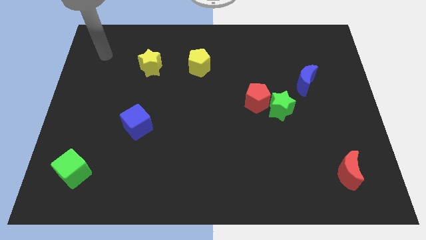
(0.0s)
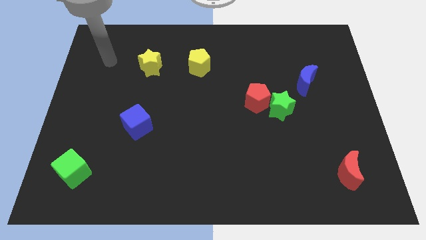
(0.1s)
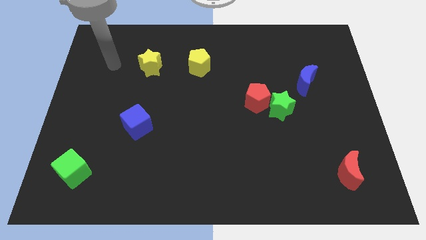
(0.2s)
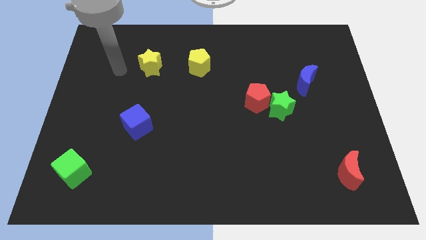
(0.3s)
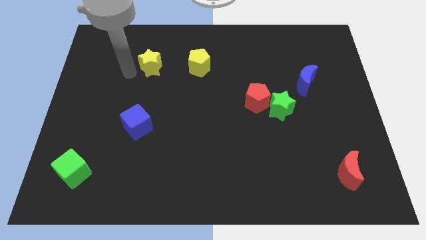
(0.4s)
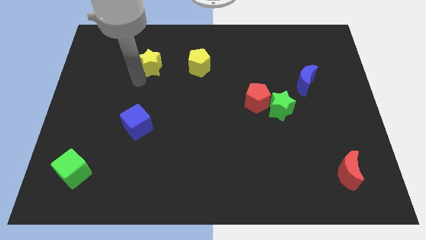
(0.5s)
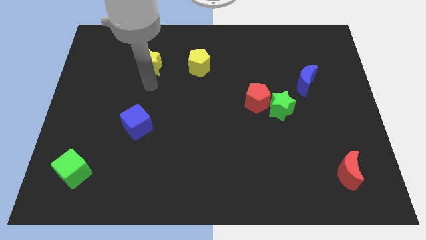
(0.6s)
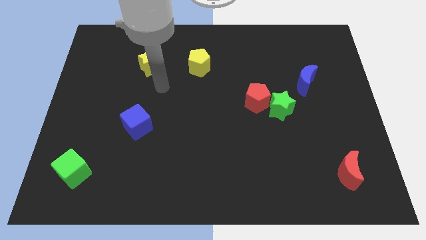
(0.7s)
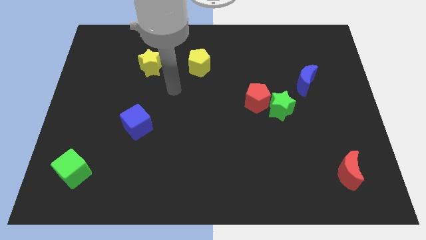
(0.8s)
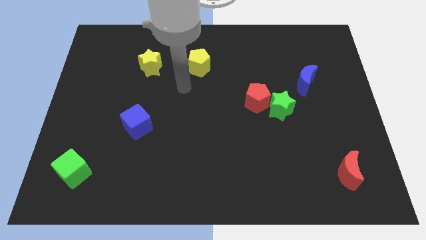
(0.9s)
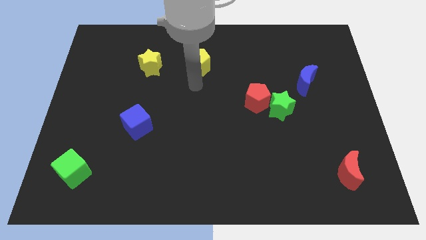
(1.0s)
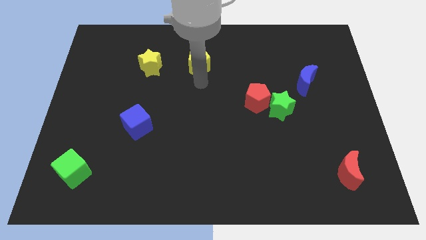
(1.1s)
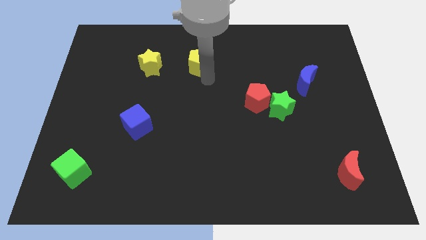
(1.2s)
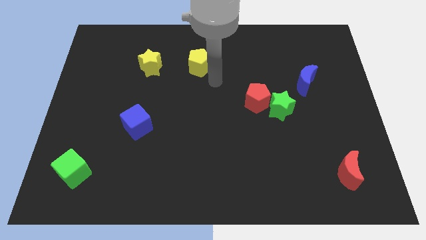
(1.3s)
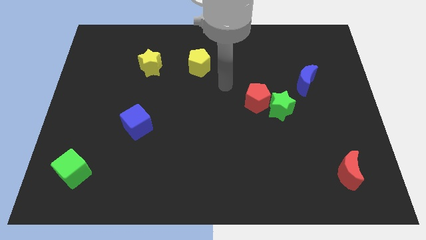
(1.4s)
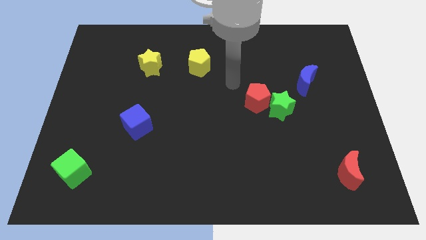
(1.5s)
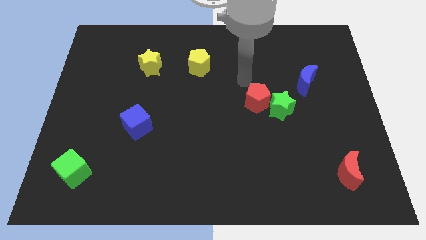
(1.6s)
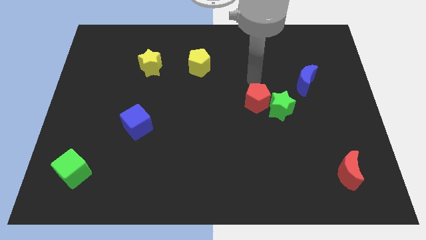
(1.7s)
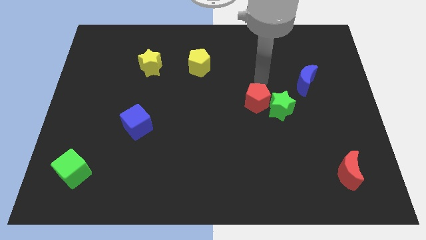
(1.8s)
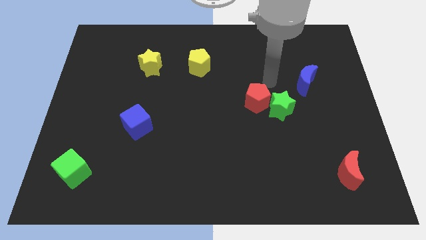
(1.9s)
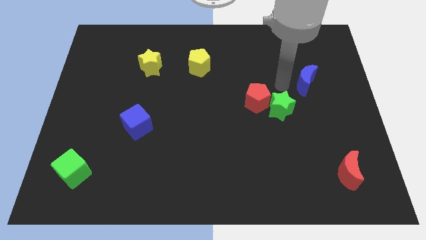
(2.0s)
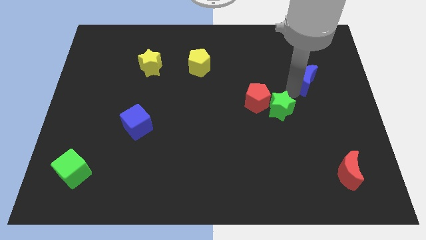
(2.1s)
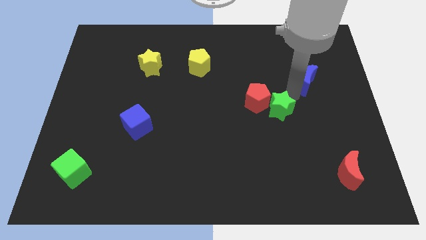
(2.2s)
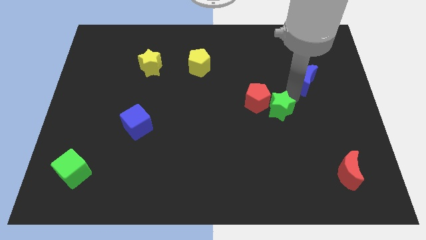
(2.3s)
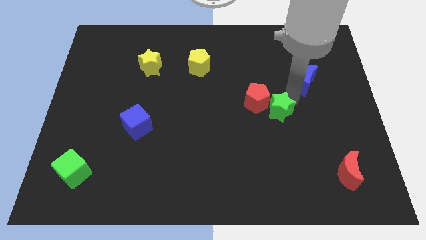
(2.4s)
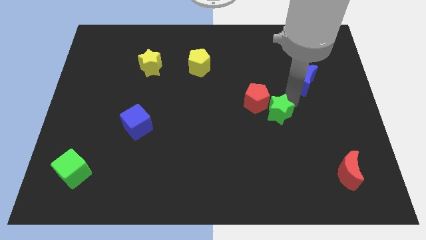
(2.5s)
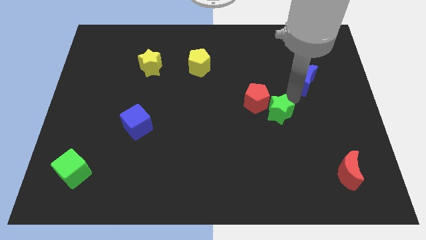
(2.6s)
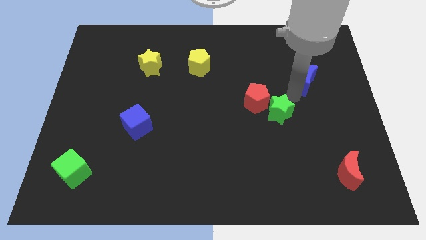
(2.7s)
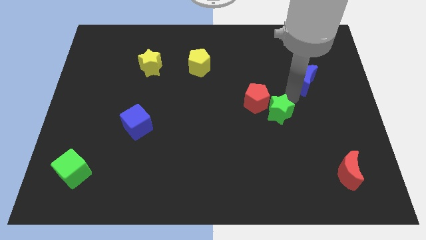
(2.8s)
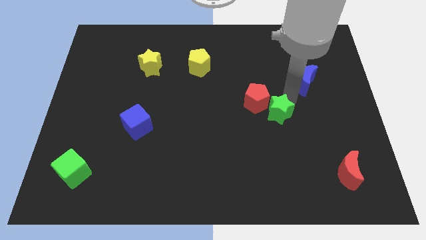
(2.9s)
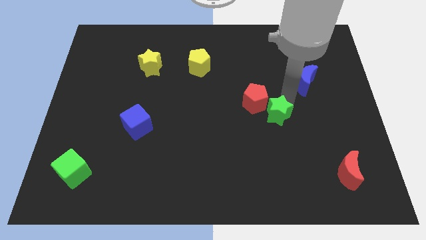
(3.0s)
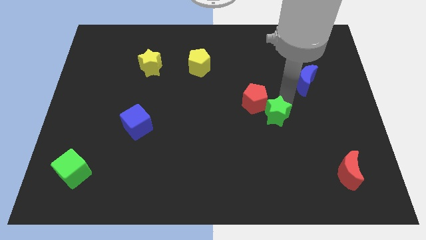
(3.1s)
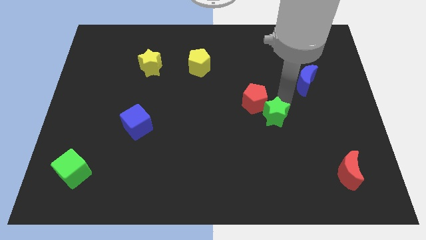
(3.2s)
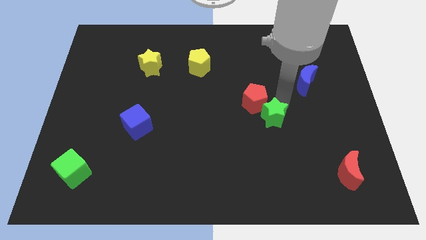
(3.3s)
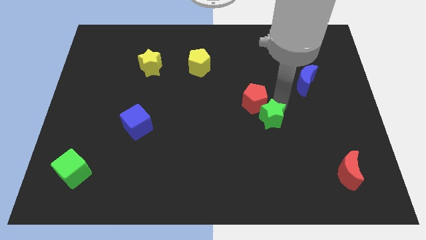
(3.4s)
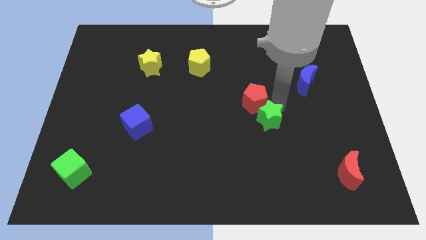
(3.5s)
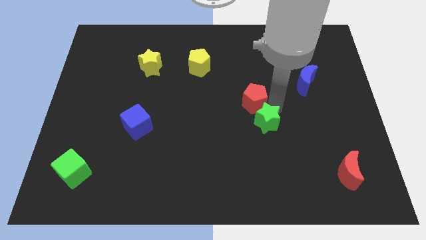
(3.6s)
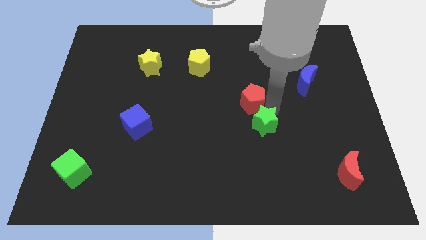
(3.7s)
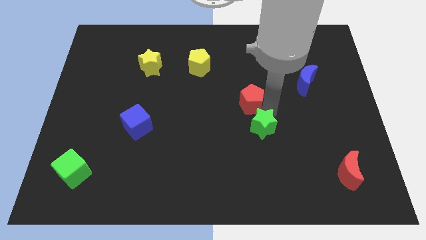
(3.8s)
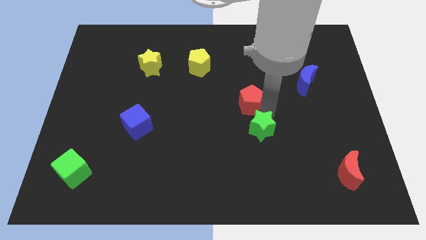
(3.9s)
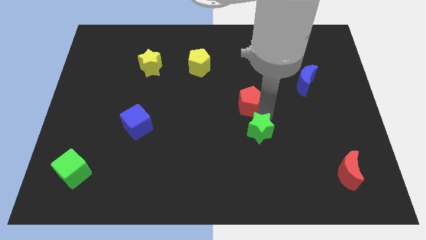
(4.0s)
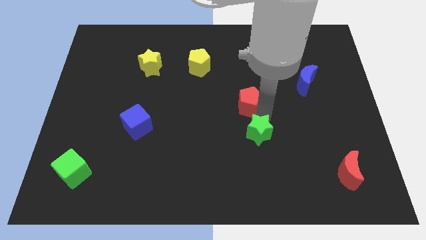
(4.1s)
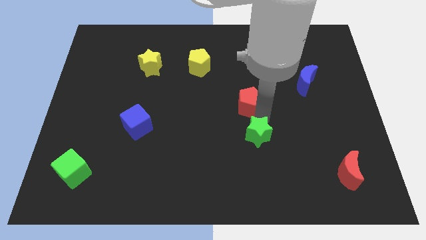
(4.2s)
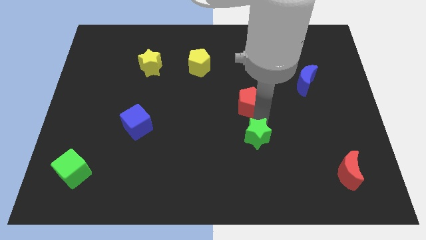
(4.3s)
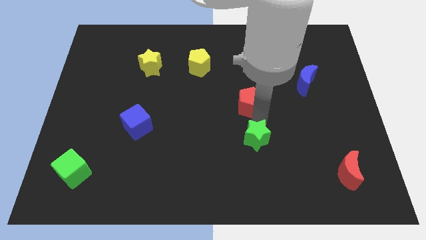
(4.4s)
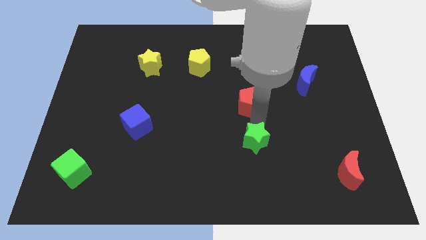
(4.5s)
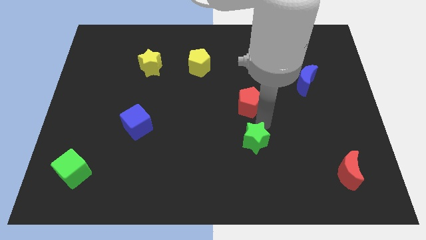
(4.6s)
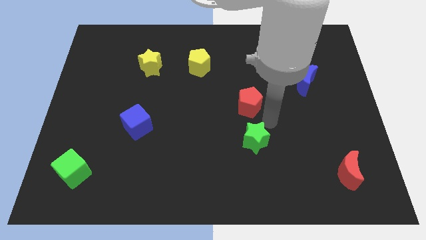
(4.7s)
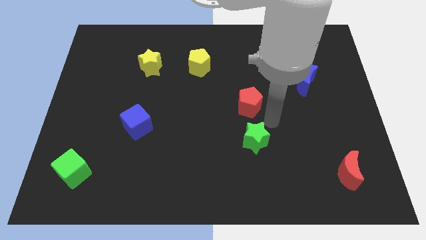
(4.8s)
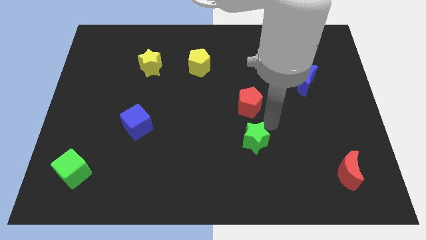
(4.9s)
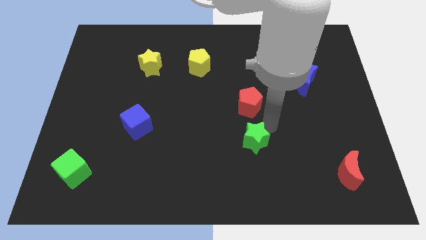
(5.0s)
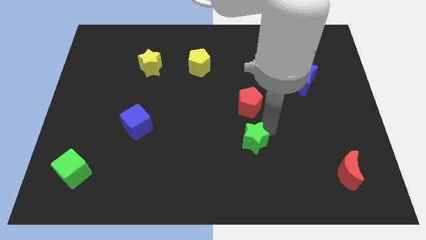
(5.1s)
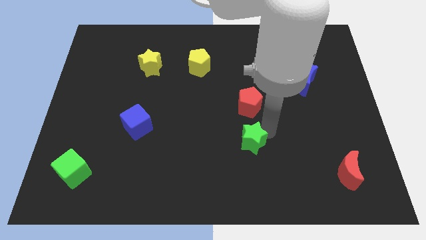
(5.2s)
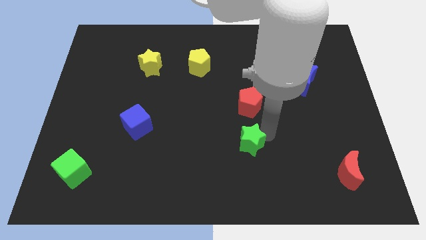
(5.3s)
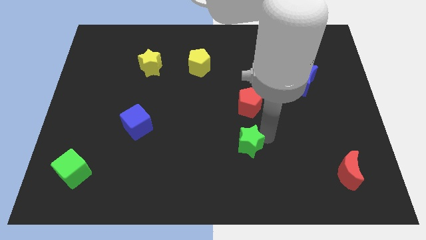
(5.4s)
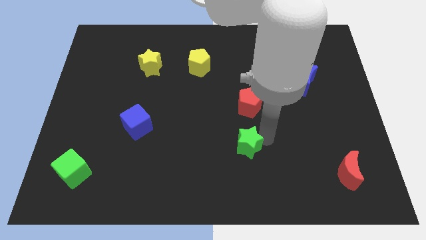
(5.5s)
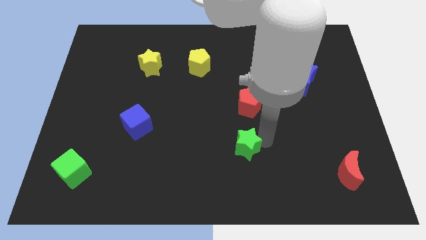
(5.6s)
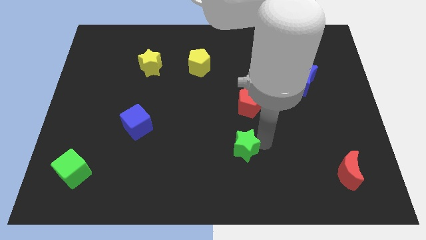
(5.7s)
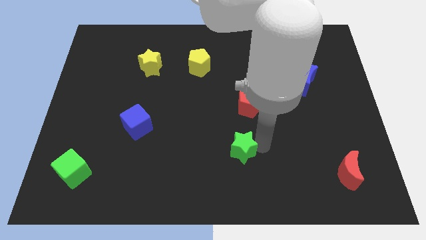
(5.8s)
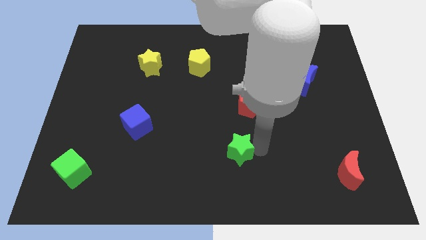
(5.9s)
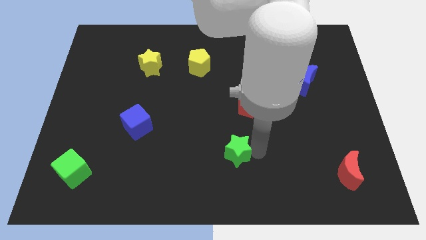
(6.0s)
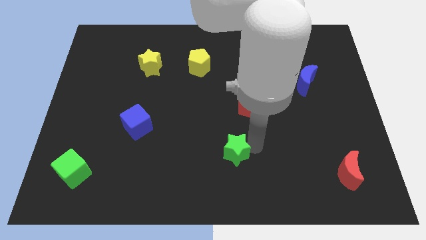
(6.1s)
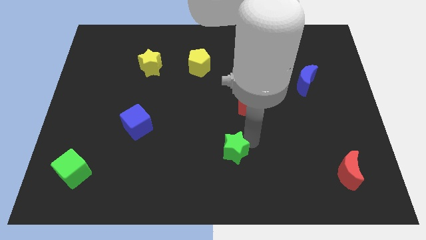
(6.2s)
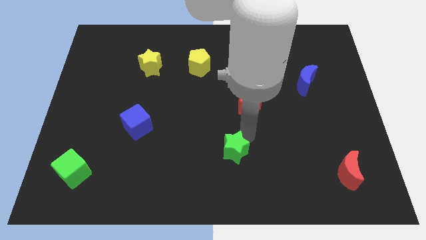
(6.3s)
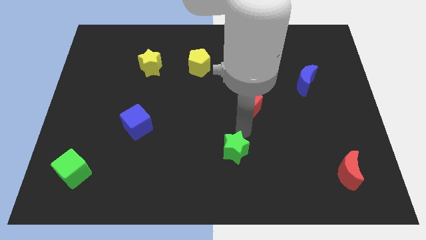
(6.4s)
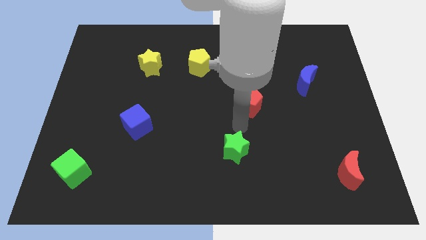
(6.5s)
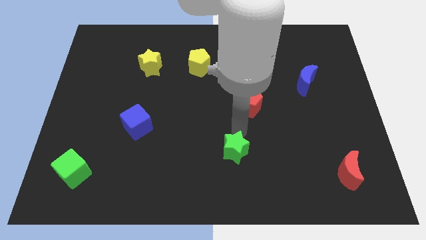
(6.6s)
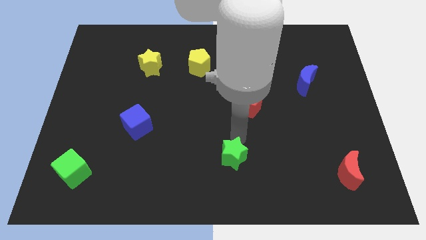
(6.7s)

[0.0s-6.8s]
move the green star to the bottom
